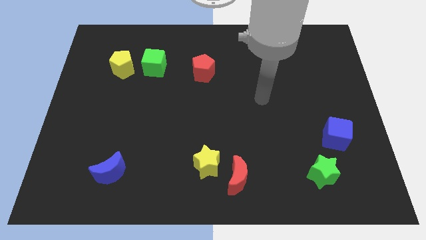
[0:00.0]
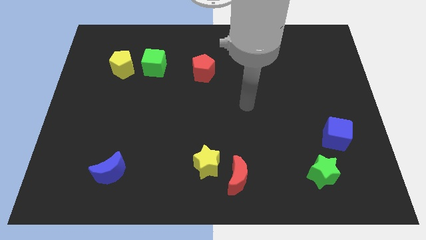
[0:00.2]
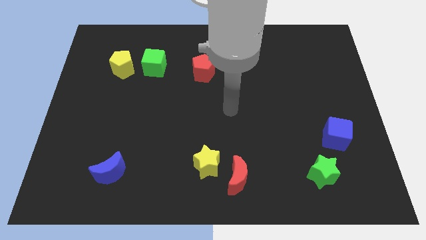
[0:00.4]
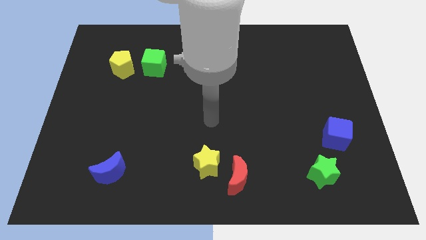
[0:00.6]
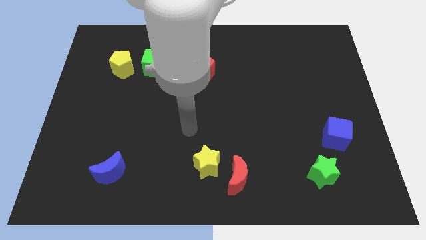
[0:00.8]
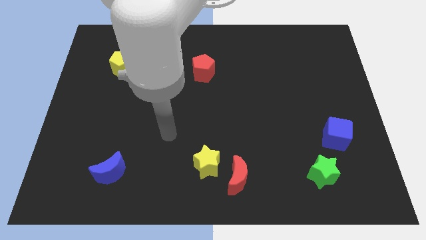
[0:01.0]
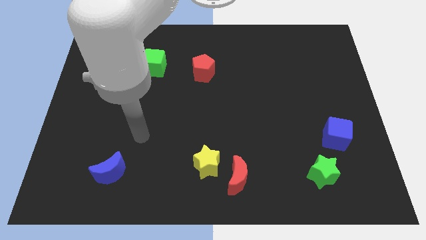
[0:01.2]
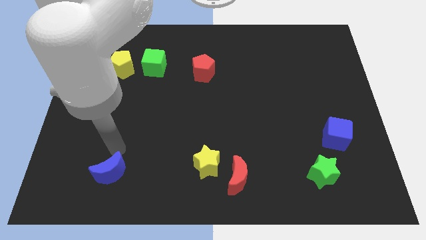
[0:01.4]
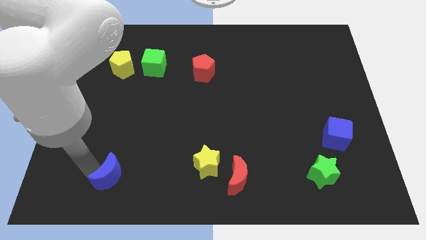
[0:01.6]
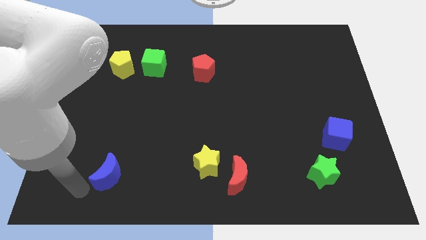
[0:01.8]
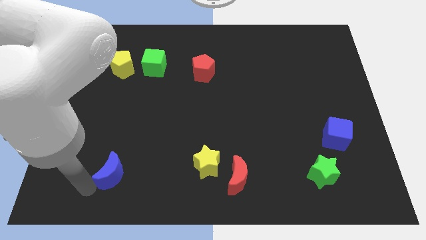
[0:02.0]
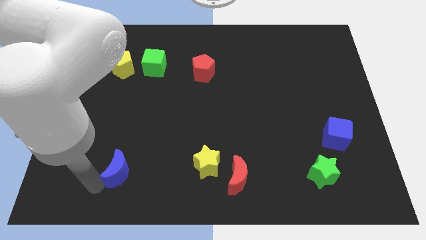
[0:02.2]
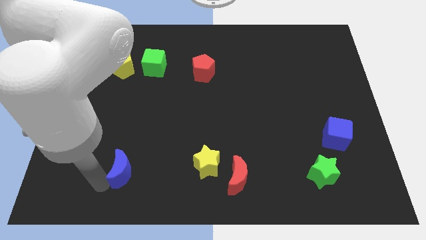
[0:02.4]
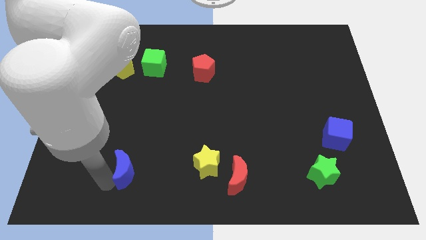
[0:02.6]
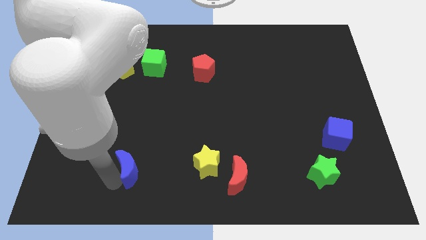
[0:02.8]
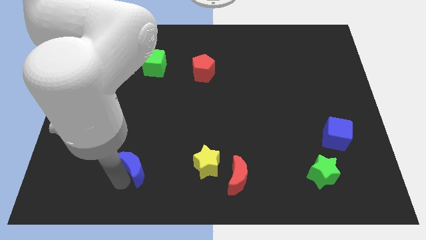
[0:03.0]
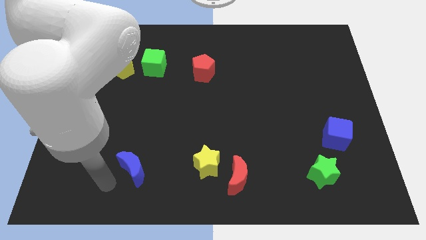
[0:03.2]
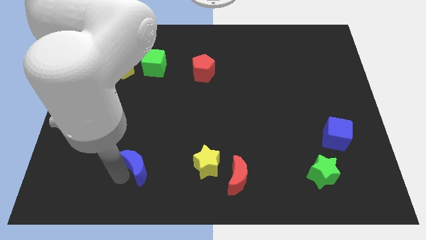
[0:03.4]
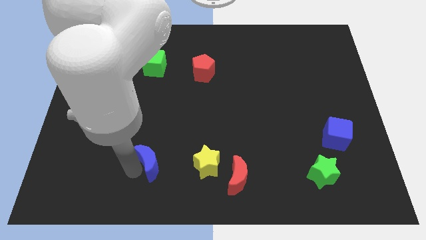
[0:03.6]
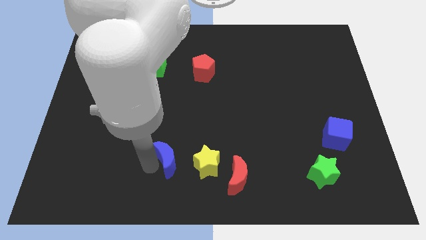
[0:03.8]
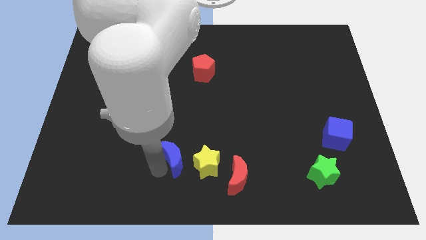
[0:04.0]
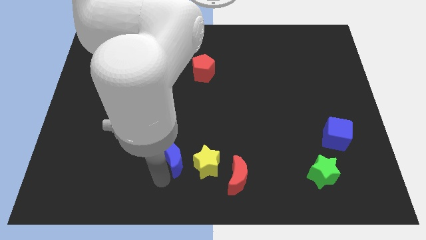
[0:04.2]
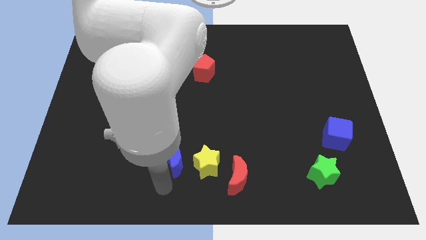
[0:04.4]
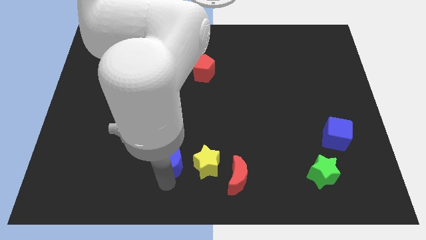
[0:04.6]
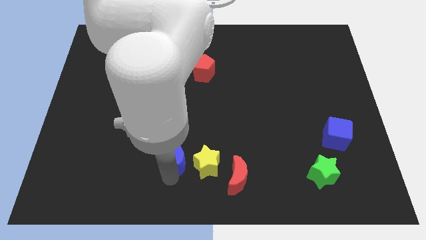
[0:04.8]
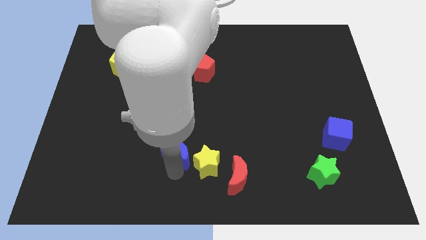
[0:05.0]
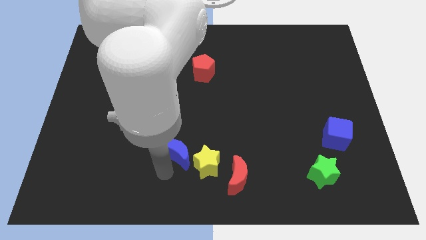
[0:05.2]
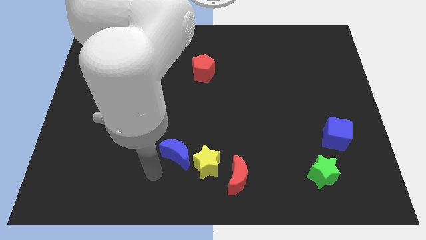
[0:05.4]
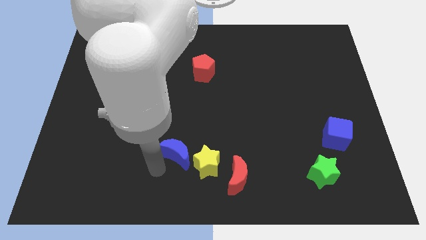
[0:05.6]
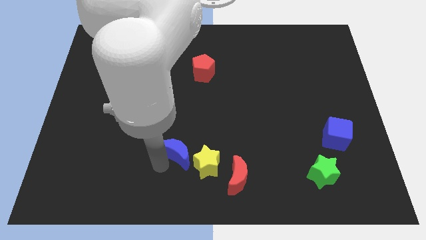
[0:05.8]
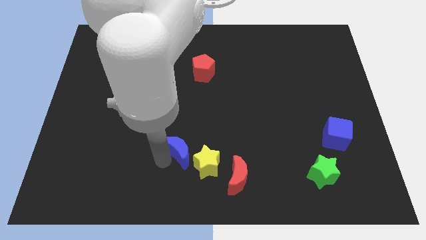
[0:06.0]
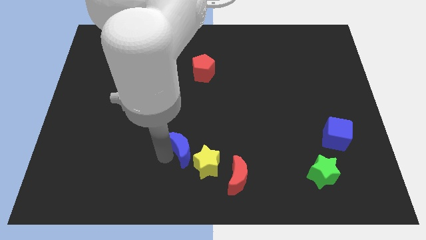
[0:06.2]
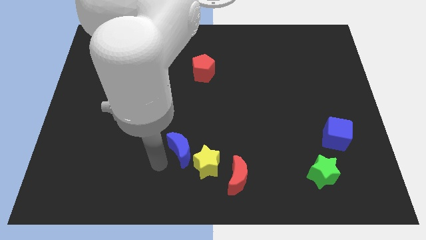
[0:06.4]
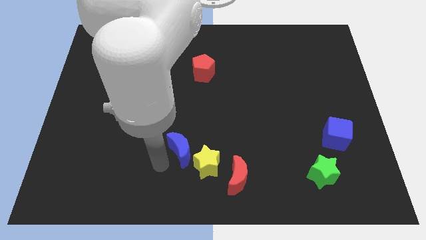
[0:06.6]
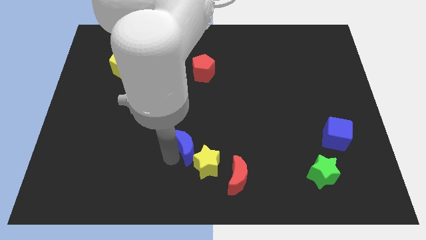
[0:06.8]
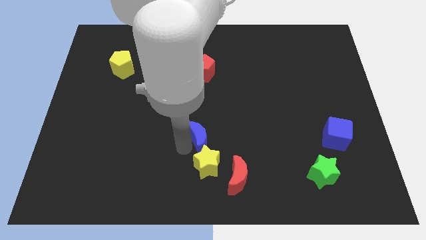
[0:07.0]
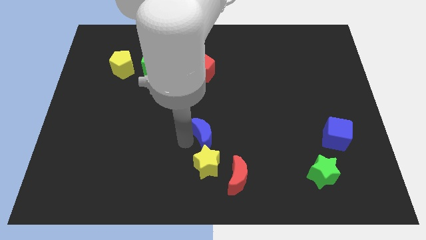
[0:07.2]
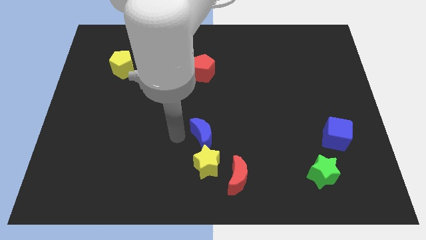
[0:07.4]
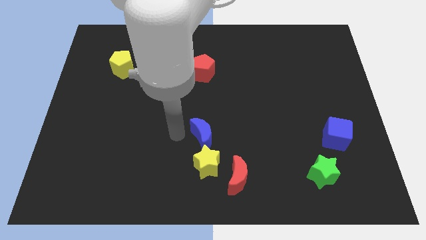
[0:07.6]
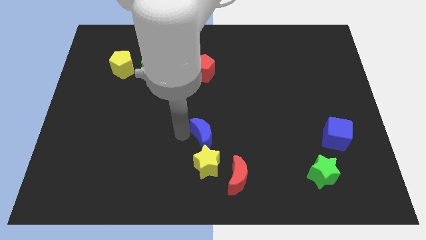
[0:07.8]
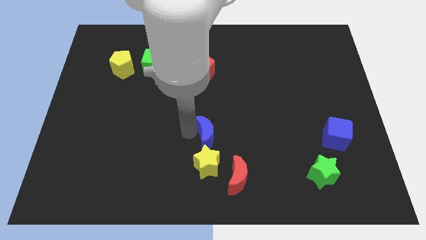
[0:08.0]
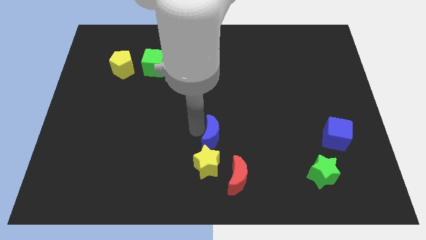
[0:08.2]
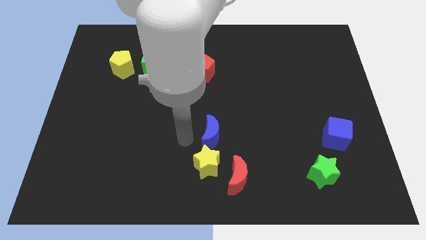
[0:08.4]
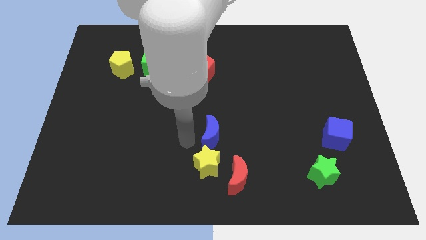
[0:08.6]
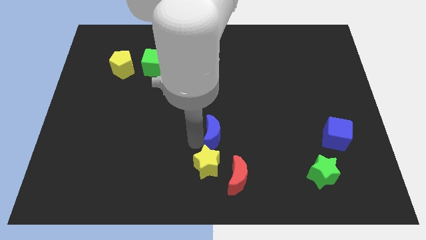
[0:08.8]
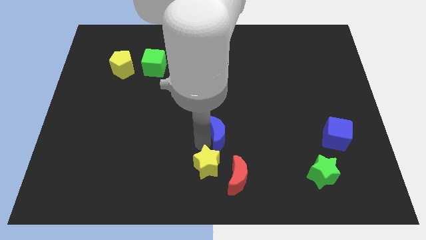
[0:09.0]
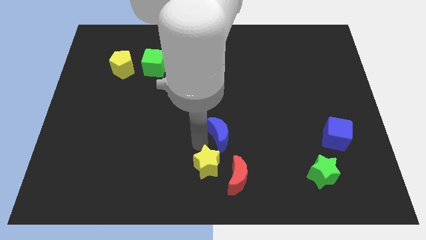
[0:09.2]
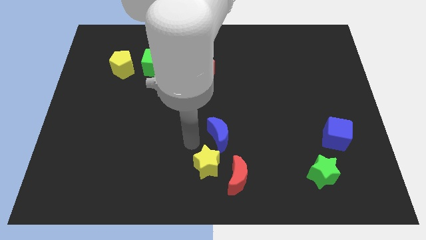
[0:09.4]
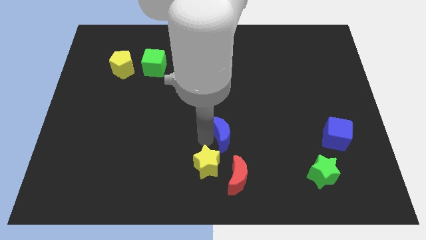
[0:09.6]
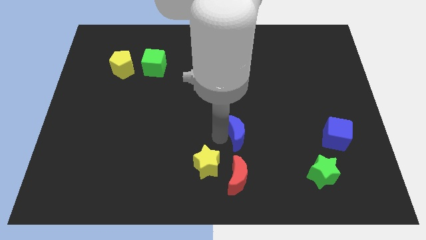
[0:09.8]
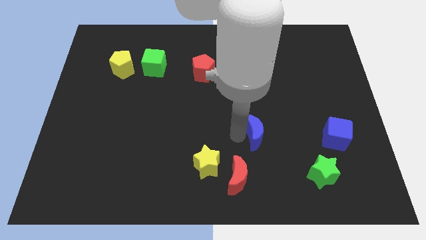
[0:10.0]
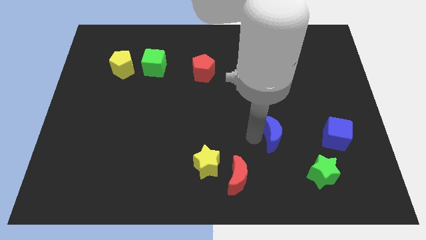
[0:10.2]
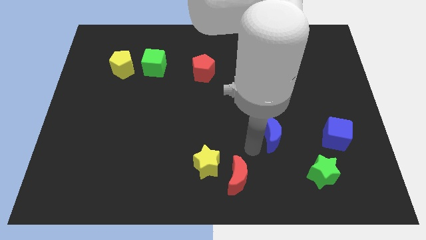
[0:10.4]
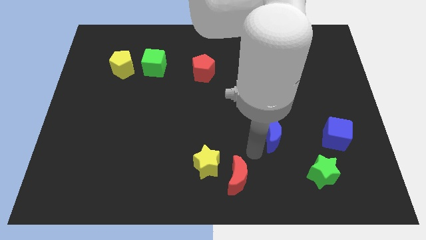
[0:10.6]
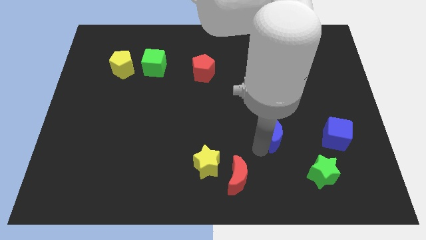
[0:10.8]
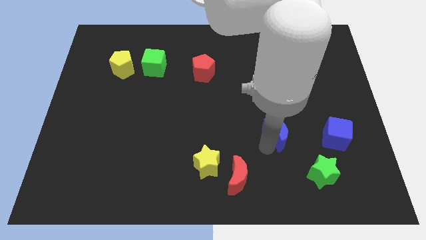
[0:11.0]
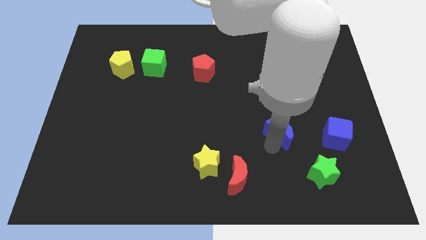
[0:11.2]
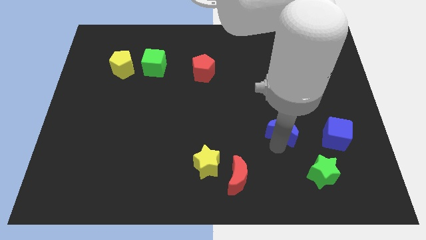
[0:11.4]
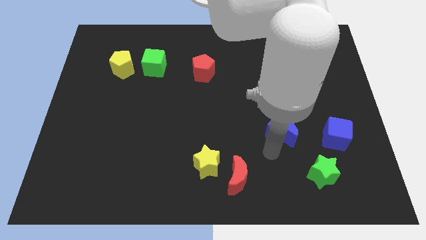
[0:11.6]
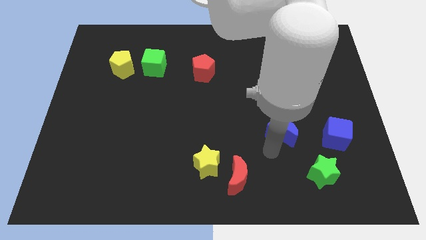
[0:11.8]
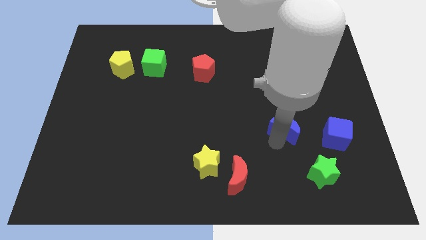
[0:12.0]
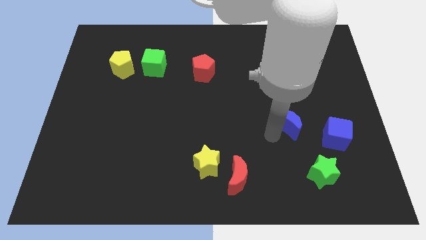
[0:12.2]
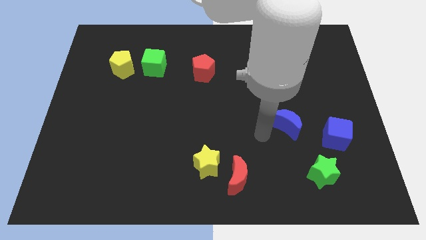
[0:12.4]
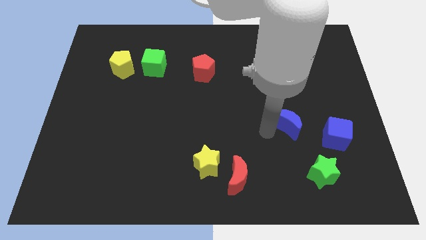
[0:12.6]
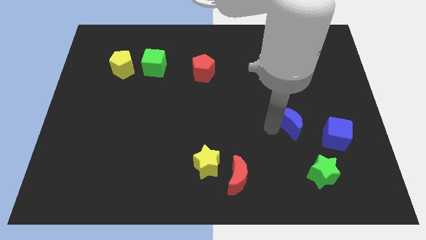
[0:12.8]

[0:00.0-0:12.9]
slide the blue moon to the top left side of the blue cube
